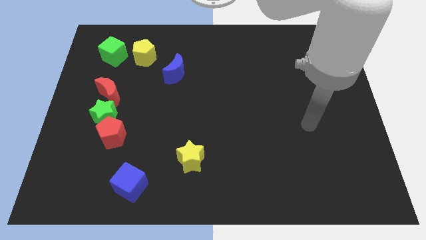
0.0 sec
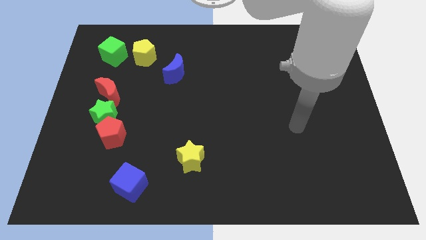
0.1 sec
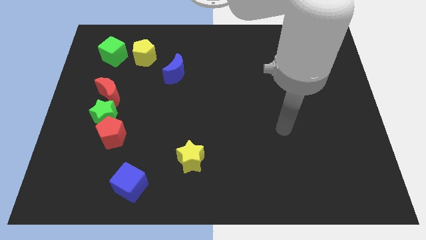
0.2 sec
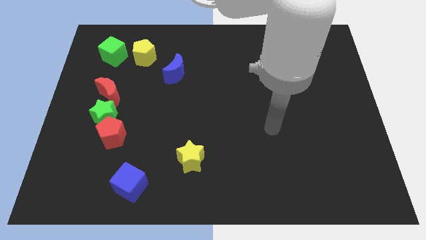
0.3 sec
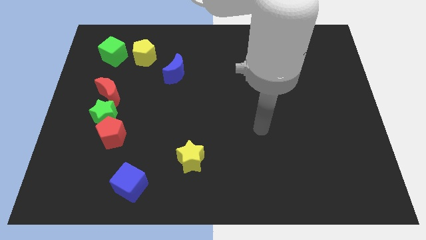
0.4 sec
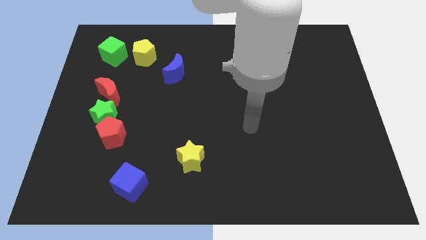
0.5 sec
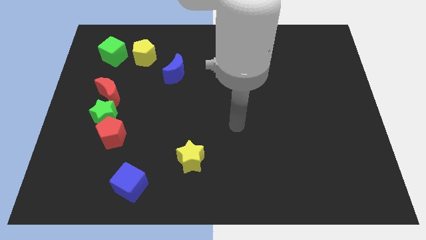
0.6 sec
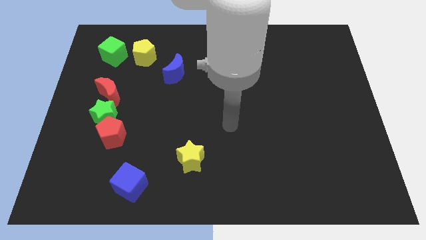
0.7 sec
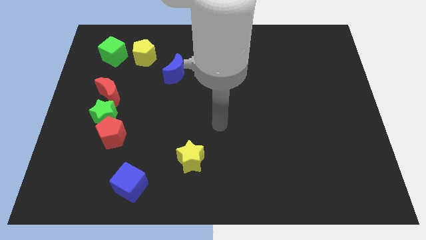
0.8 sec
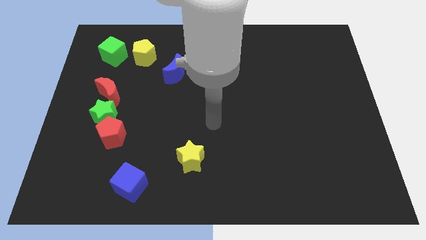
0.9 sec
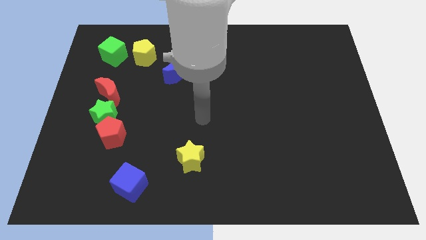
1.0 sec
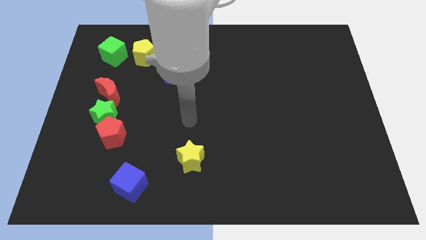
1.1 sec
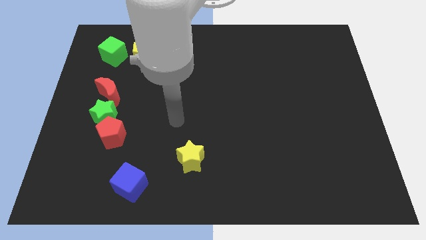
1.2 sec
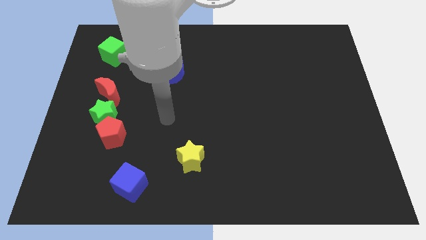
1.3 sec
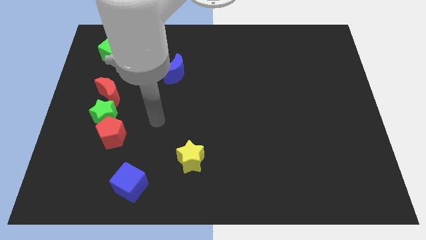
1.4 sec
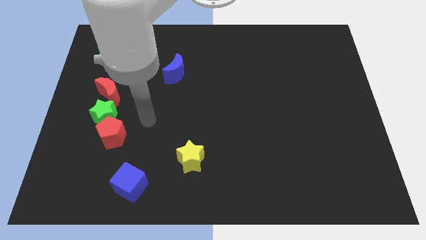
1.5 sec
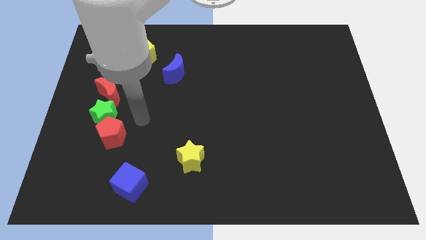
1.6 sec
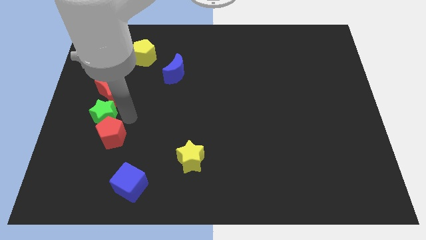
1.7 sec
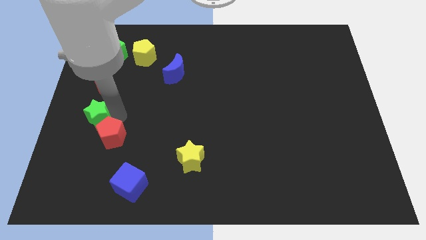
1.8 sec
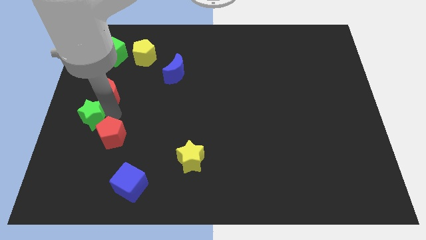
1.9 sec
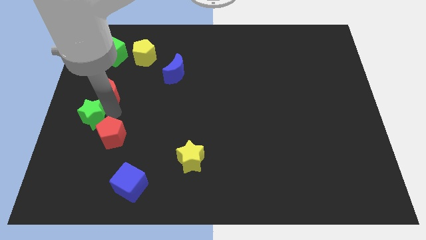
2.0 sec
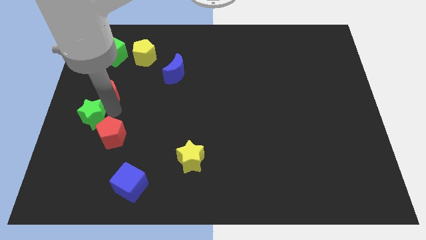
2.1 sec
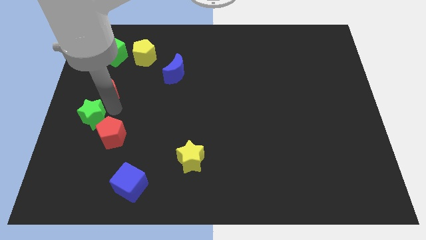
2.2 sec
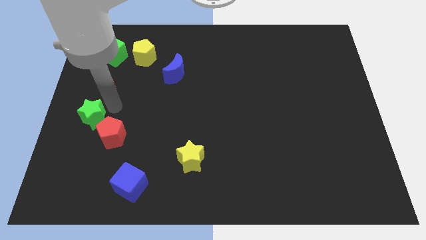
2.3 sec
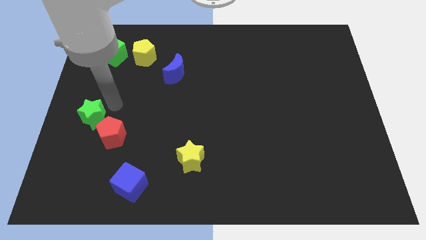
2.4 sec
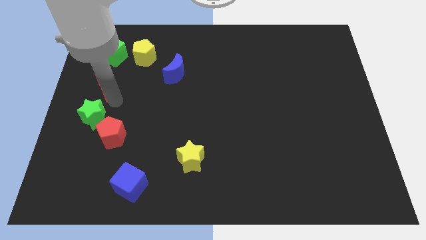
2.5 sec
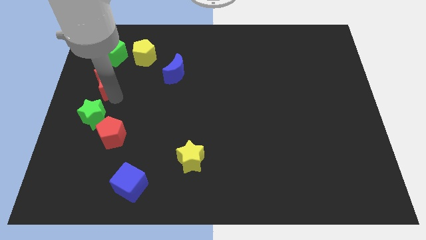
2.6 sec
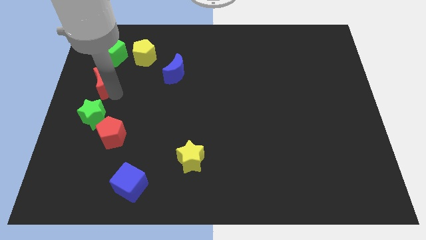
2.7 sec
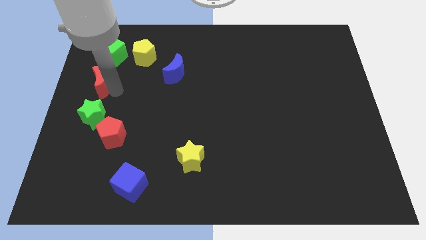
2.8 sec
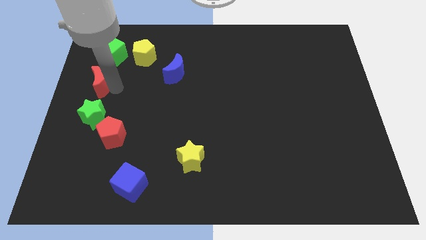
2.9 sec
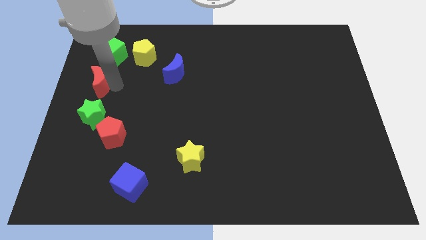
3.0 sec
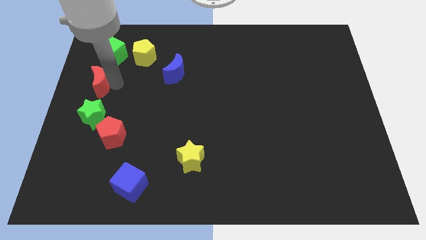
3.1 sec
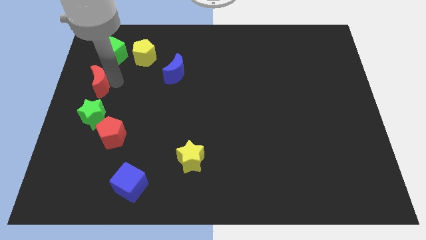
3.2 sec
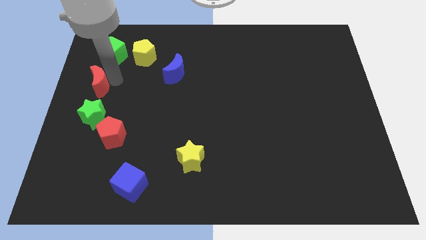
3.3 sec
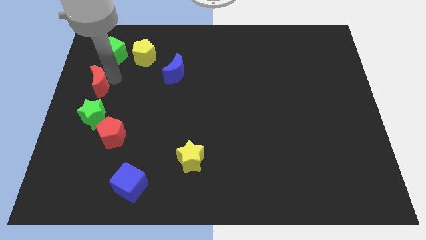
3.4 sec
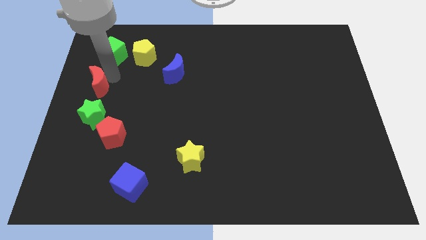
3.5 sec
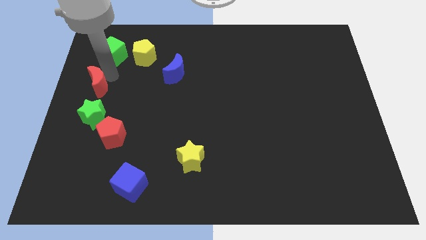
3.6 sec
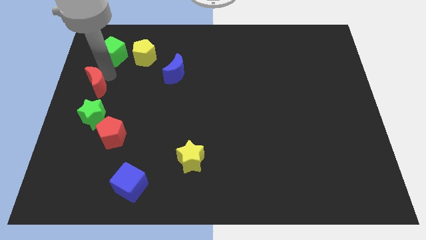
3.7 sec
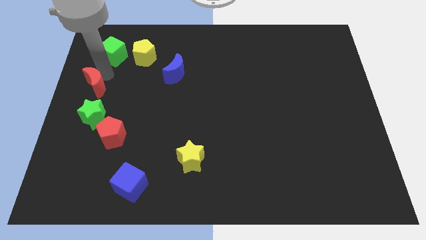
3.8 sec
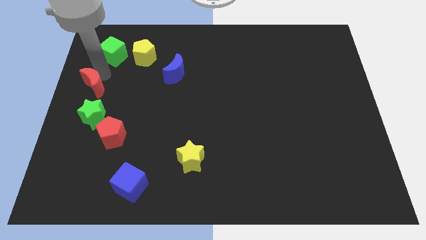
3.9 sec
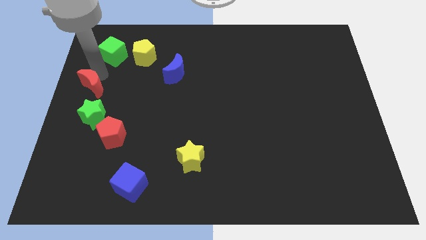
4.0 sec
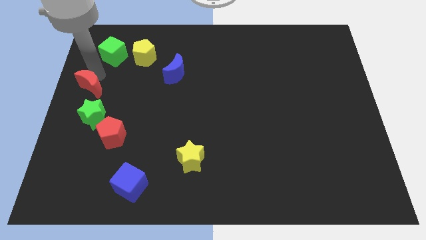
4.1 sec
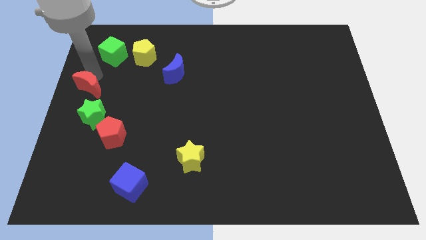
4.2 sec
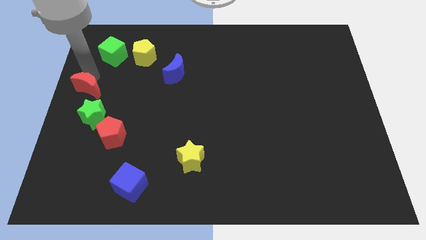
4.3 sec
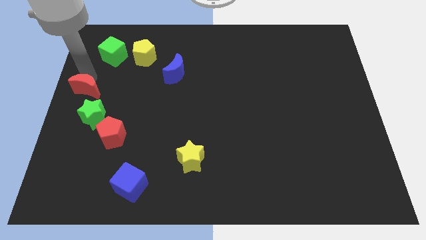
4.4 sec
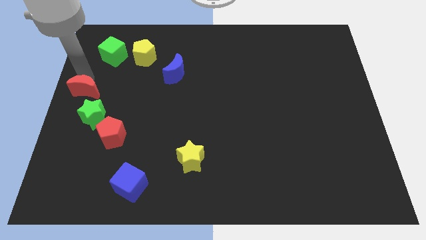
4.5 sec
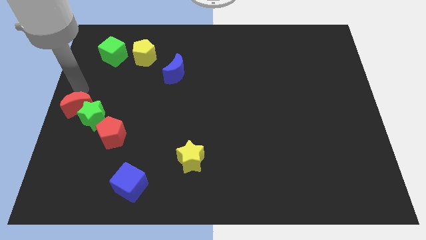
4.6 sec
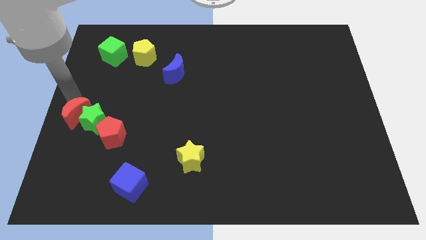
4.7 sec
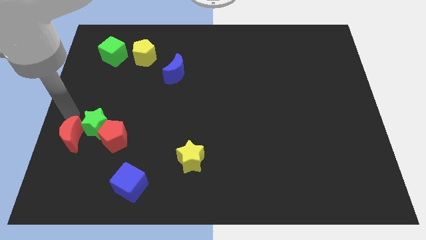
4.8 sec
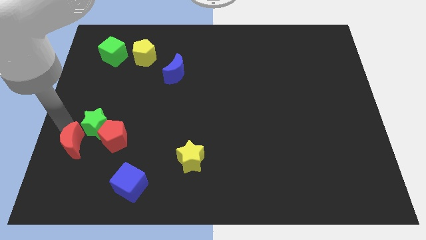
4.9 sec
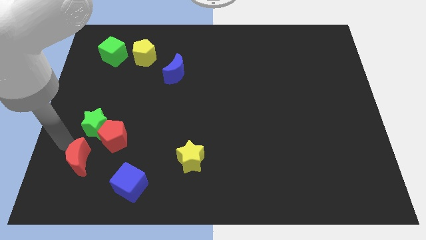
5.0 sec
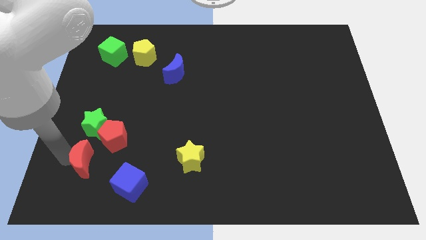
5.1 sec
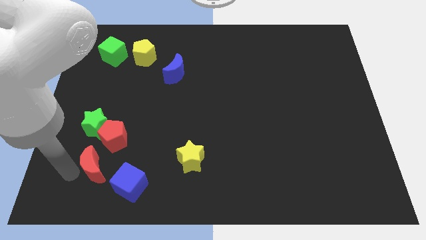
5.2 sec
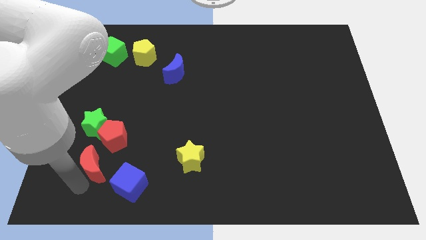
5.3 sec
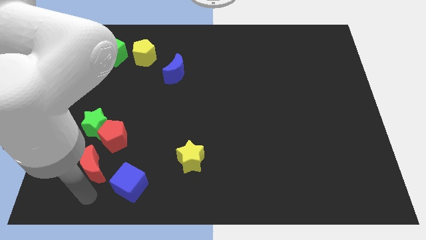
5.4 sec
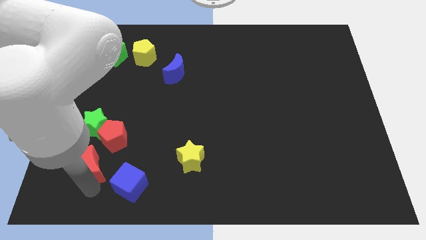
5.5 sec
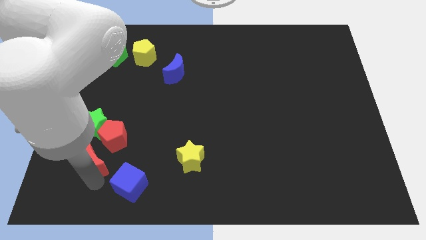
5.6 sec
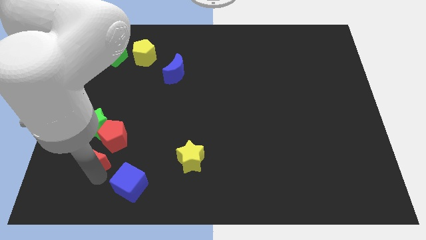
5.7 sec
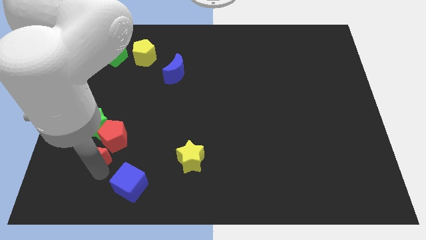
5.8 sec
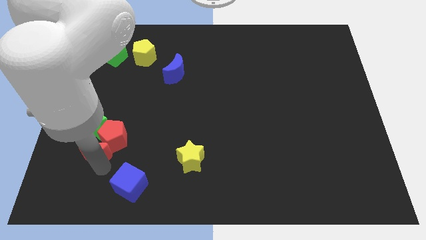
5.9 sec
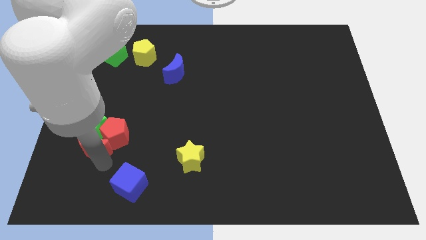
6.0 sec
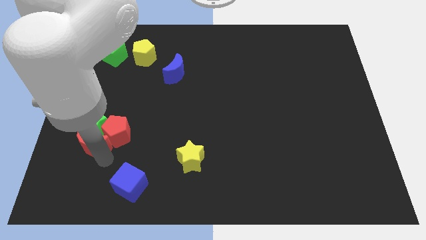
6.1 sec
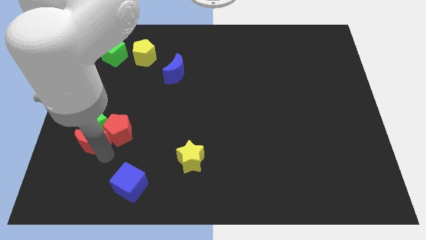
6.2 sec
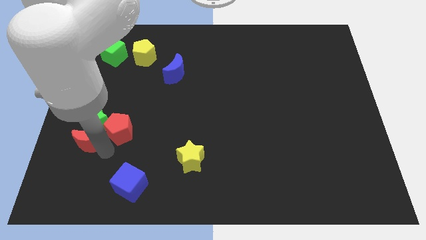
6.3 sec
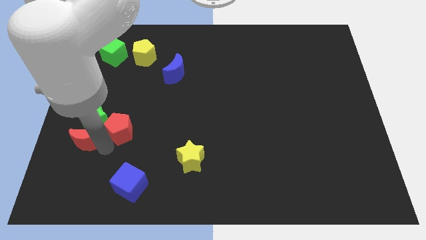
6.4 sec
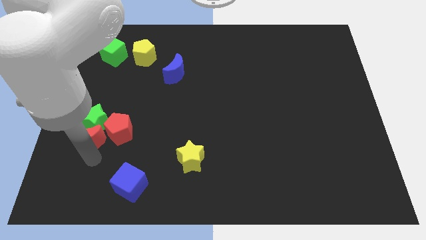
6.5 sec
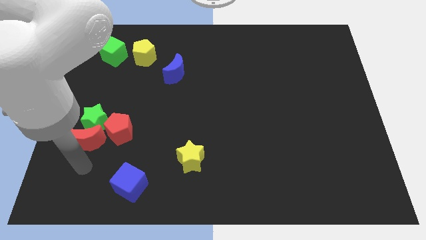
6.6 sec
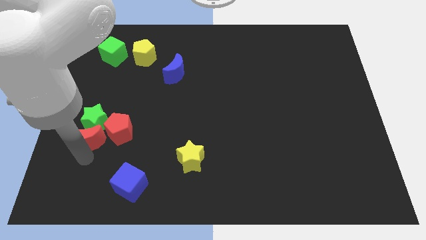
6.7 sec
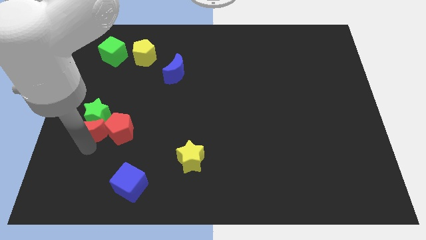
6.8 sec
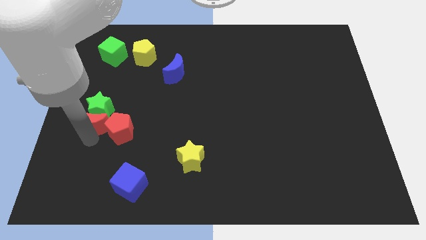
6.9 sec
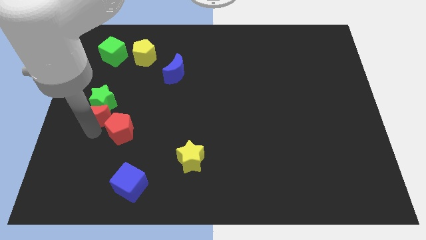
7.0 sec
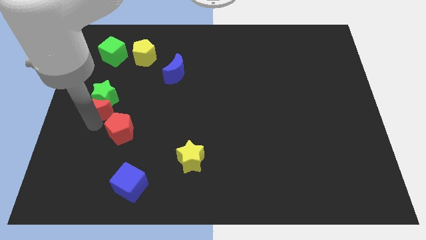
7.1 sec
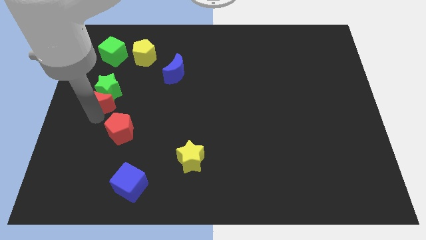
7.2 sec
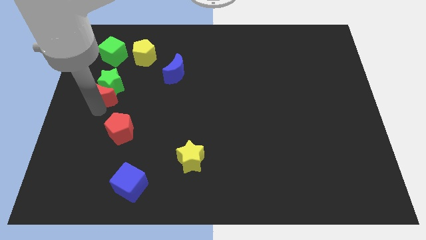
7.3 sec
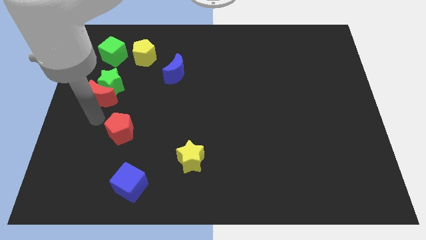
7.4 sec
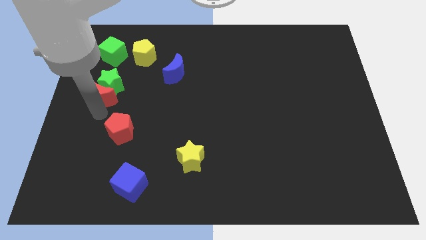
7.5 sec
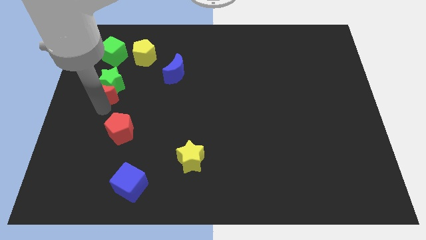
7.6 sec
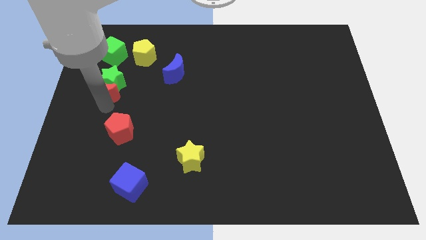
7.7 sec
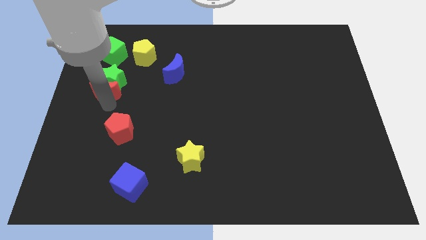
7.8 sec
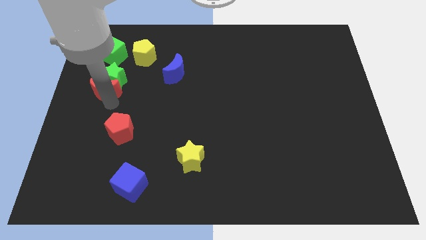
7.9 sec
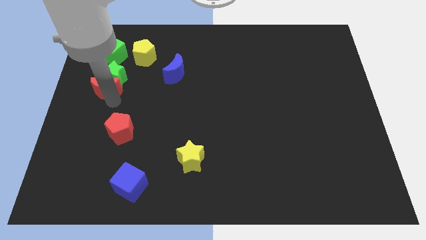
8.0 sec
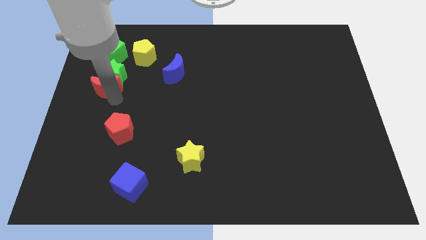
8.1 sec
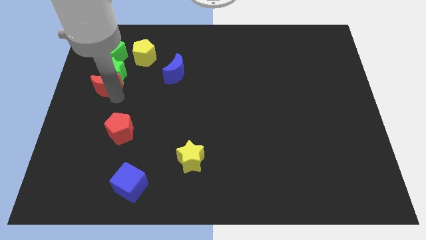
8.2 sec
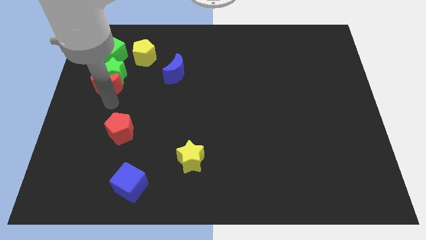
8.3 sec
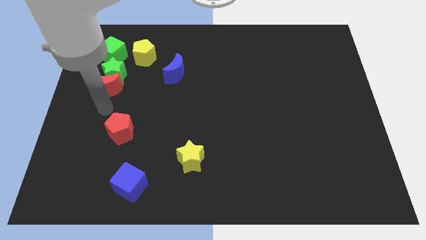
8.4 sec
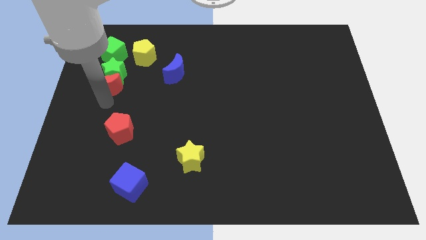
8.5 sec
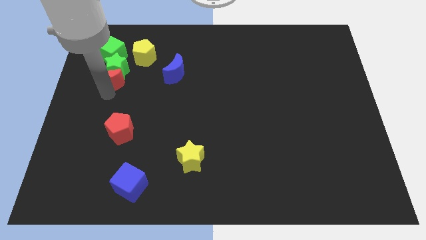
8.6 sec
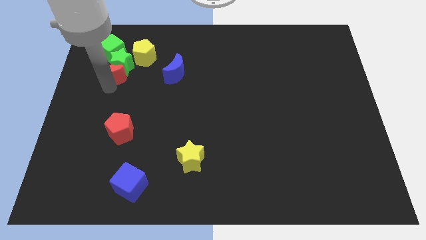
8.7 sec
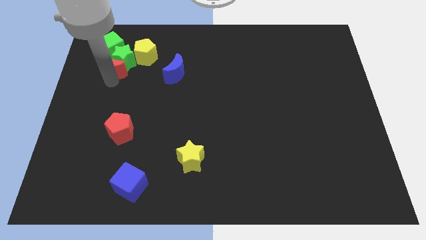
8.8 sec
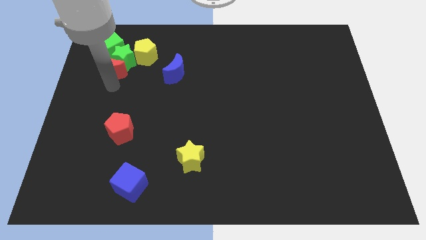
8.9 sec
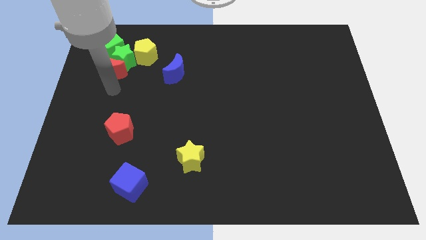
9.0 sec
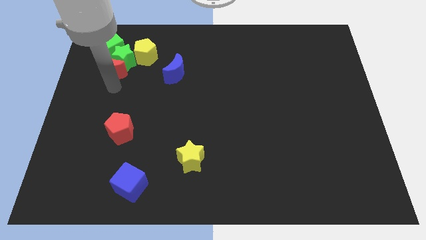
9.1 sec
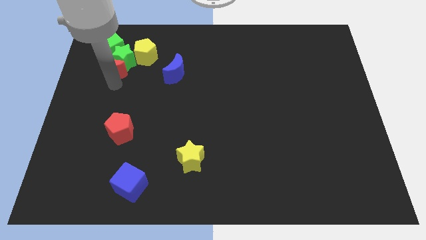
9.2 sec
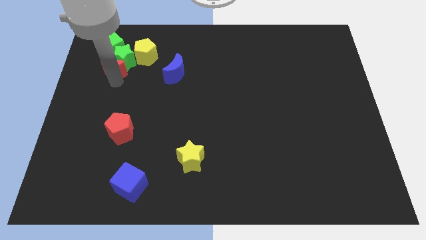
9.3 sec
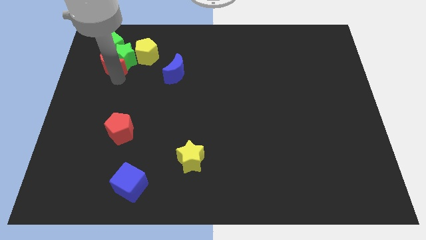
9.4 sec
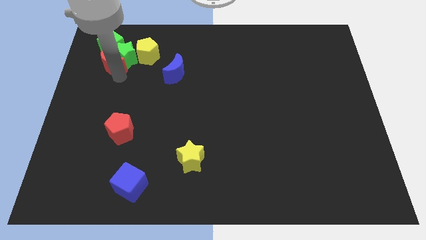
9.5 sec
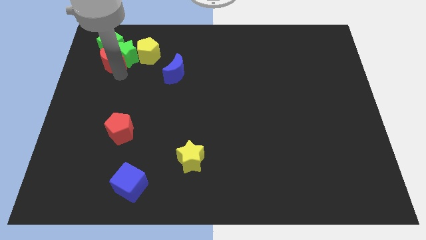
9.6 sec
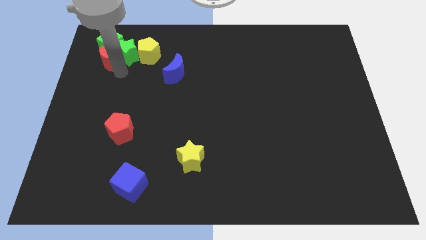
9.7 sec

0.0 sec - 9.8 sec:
slide the red moon towards the green cube
